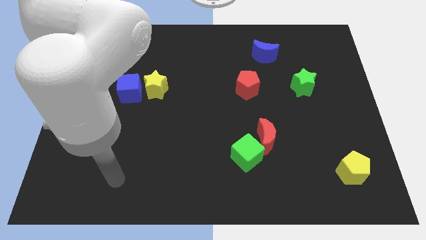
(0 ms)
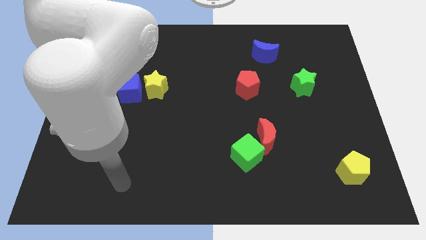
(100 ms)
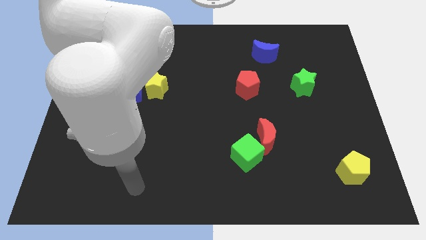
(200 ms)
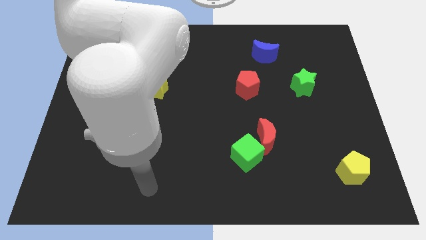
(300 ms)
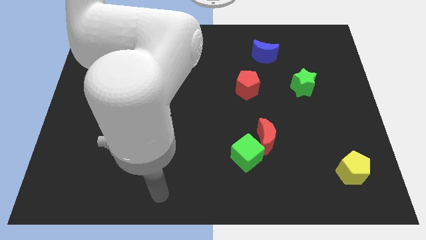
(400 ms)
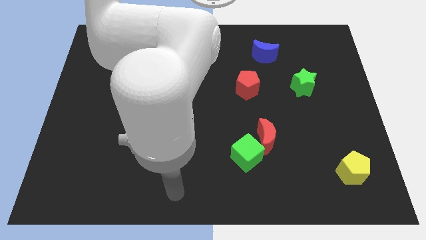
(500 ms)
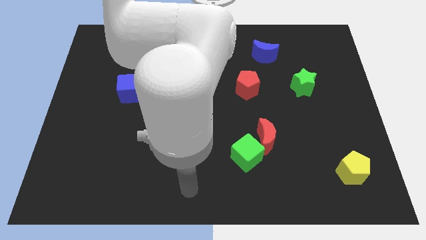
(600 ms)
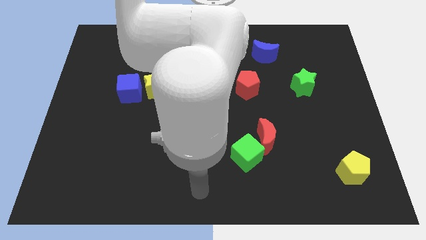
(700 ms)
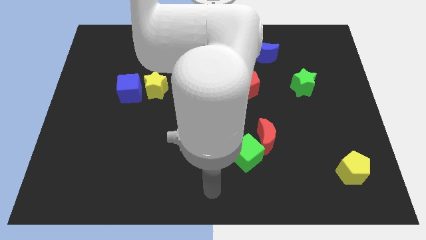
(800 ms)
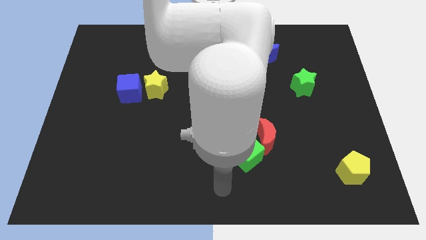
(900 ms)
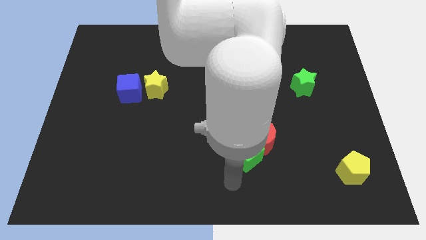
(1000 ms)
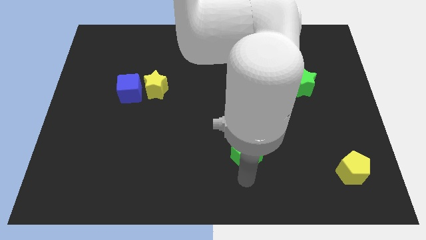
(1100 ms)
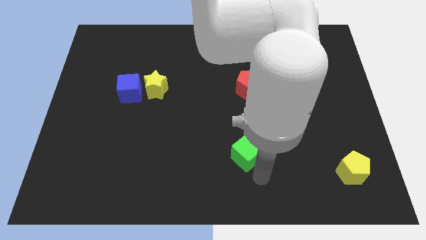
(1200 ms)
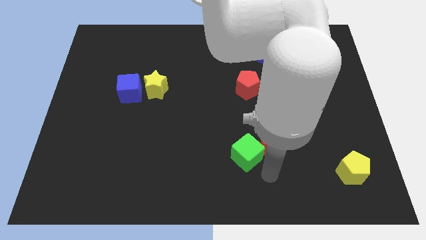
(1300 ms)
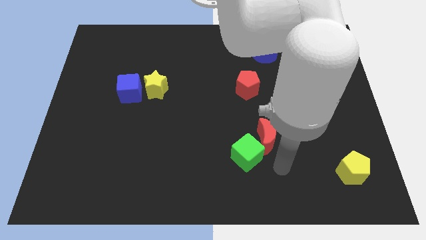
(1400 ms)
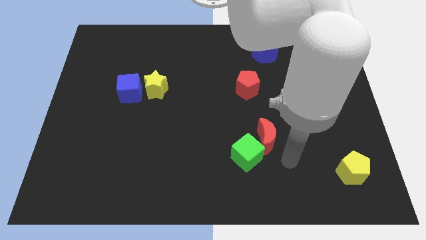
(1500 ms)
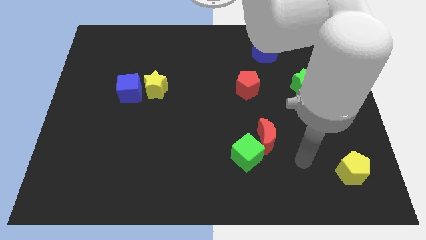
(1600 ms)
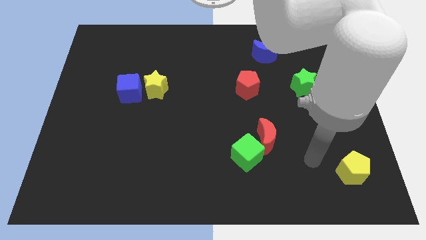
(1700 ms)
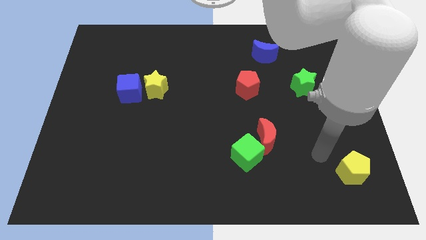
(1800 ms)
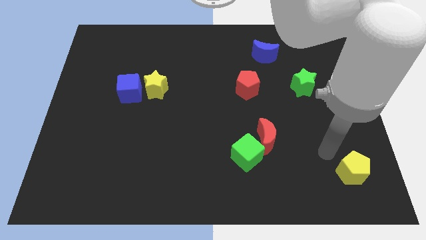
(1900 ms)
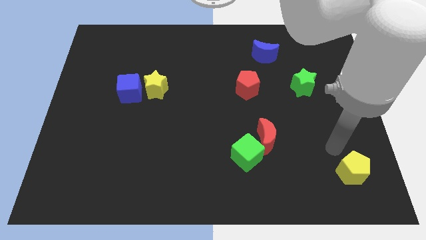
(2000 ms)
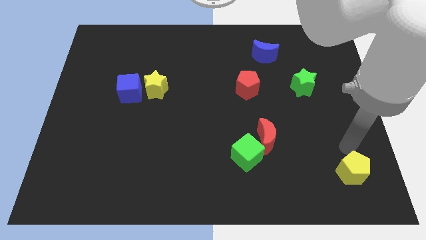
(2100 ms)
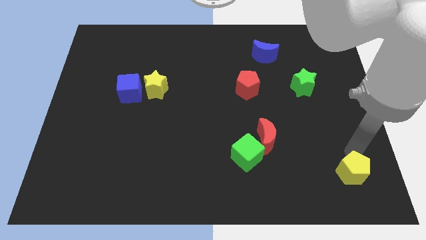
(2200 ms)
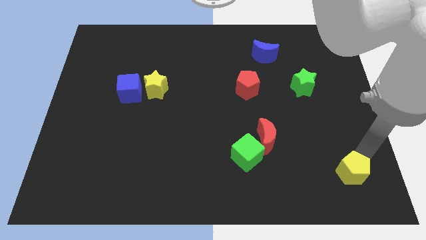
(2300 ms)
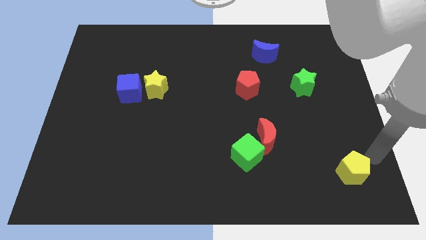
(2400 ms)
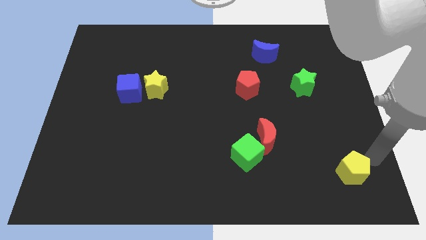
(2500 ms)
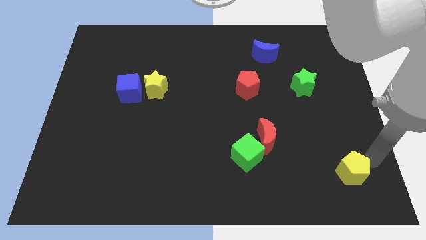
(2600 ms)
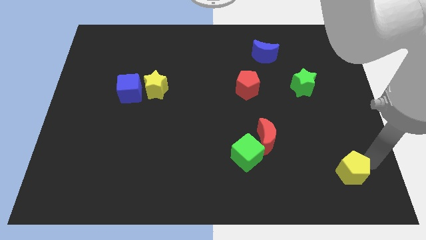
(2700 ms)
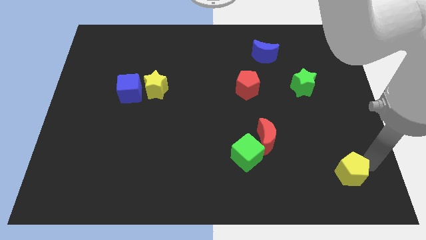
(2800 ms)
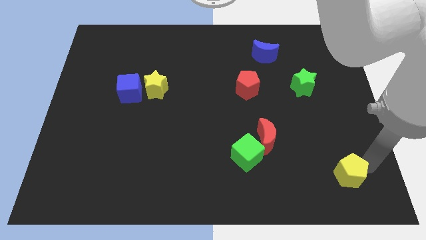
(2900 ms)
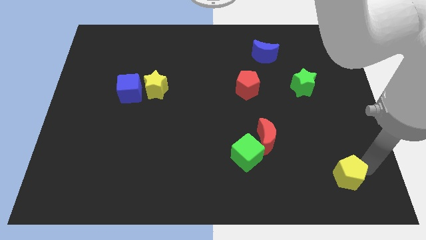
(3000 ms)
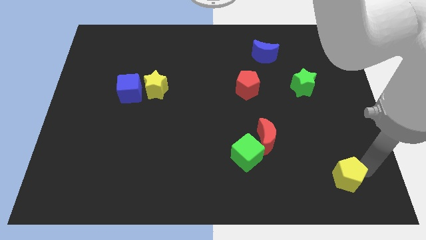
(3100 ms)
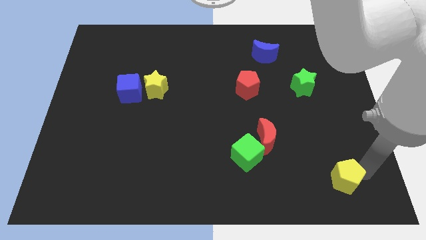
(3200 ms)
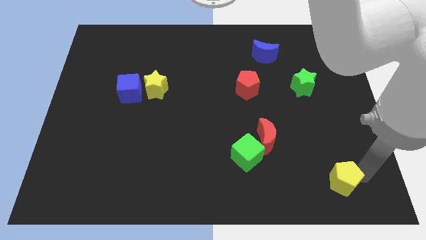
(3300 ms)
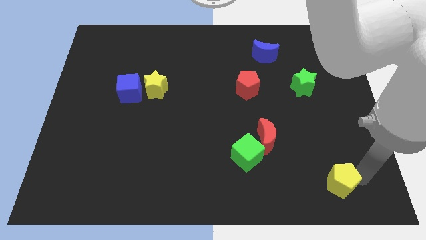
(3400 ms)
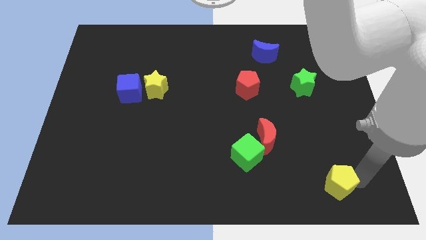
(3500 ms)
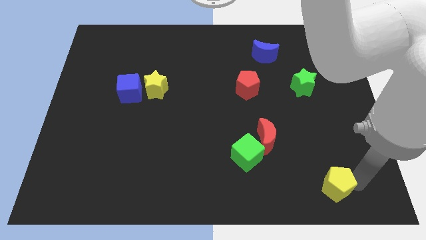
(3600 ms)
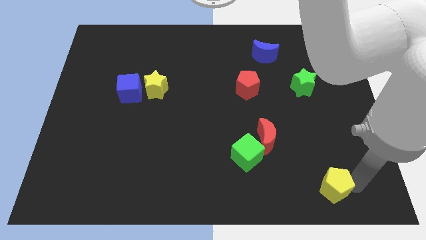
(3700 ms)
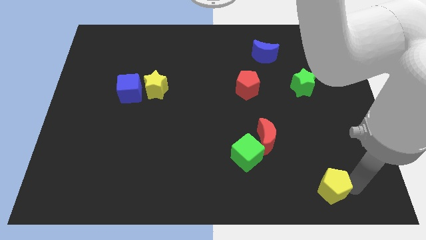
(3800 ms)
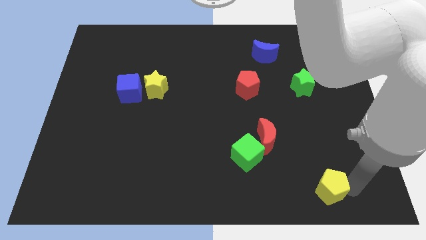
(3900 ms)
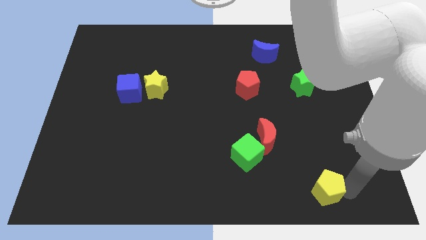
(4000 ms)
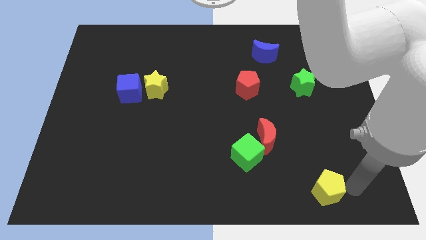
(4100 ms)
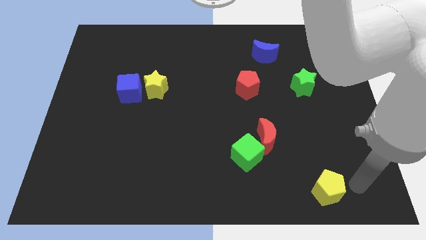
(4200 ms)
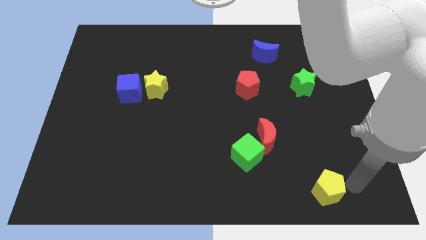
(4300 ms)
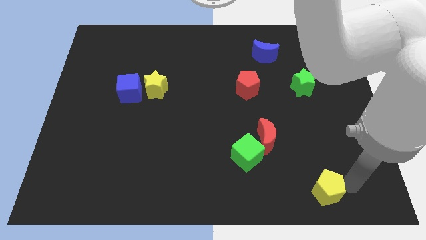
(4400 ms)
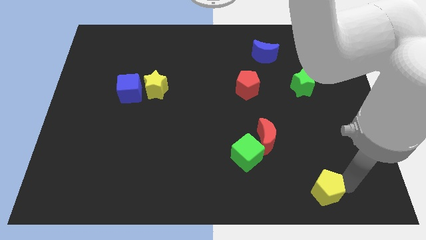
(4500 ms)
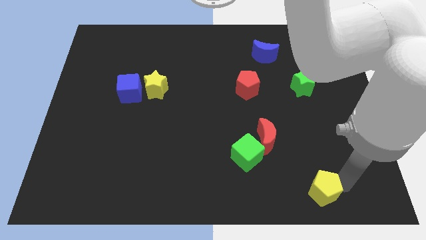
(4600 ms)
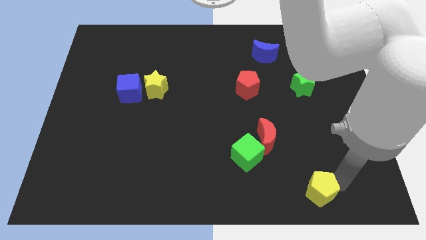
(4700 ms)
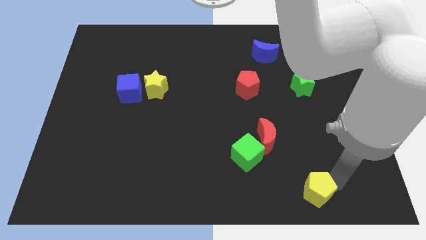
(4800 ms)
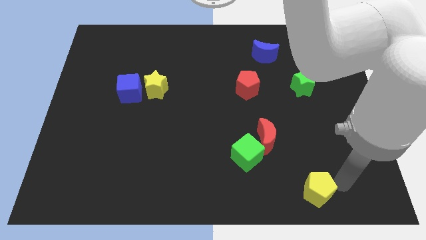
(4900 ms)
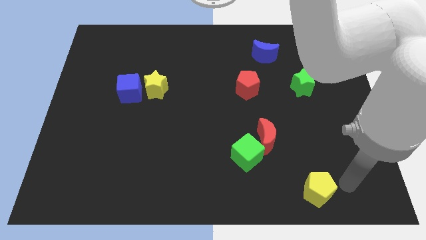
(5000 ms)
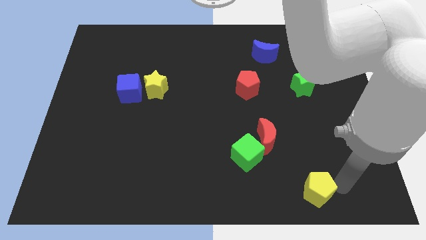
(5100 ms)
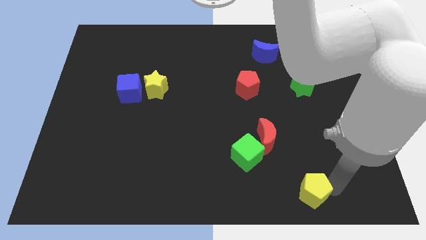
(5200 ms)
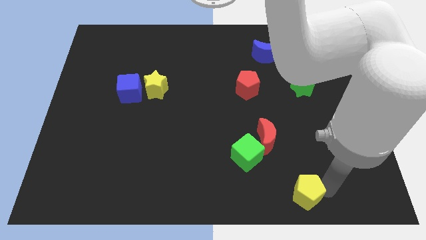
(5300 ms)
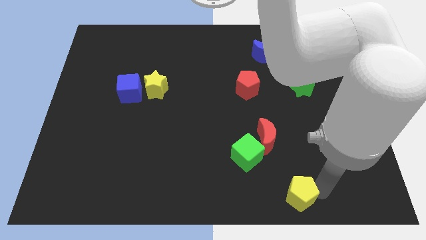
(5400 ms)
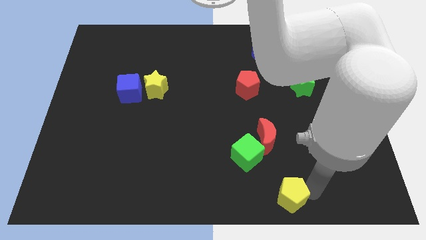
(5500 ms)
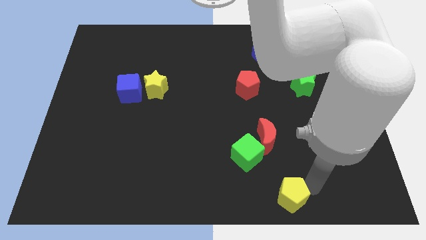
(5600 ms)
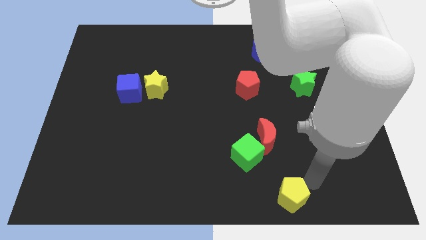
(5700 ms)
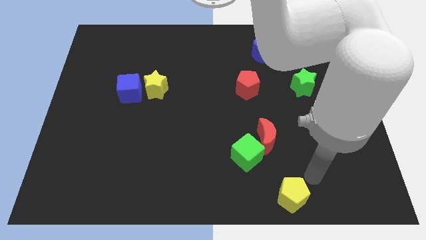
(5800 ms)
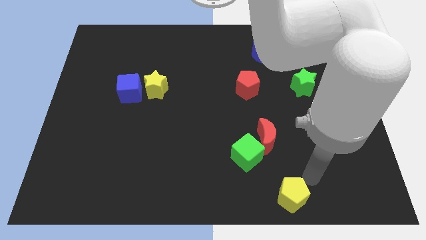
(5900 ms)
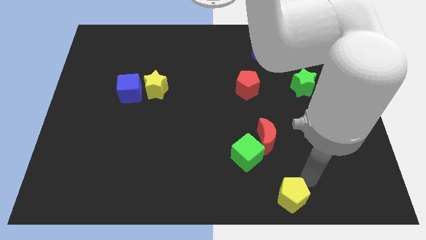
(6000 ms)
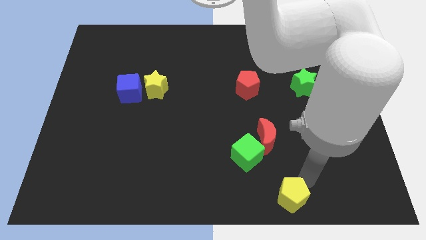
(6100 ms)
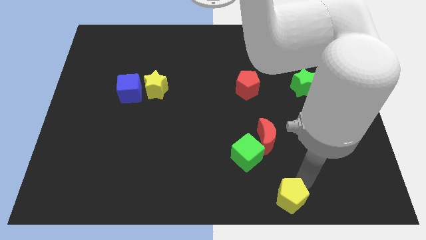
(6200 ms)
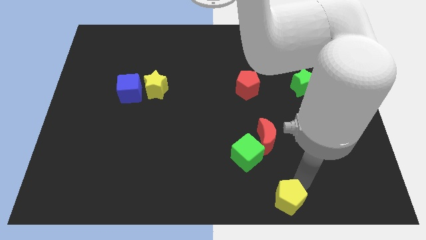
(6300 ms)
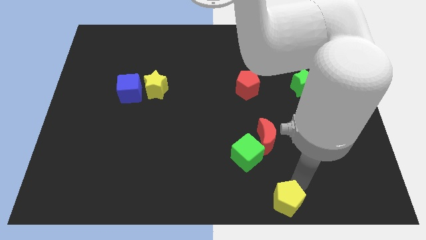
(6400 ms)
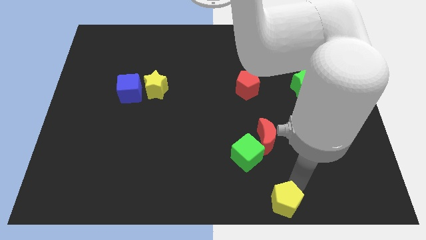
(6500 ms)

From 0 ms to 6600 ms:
move the yellow pentagon to the bottom
